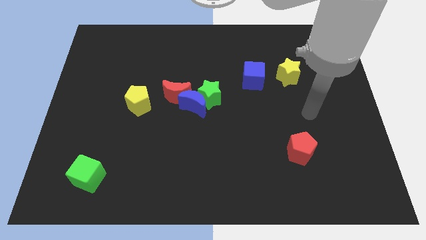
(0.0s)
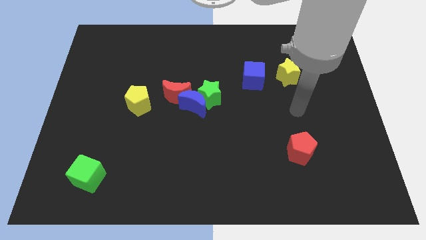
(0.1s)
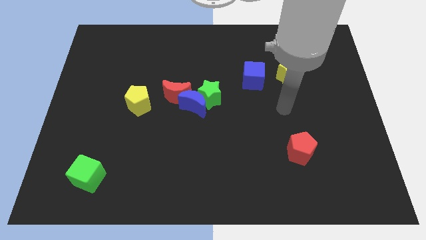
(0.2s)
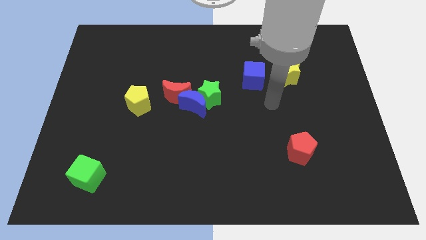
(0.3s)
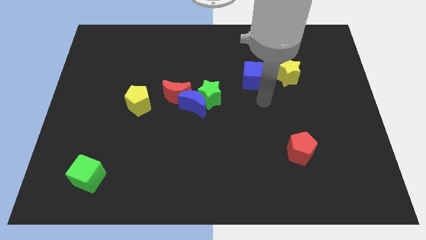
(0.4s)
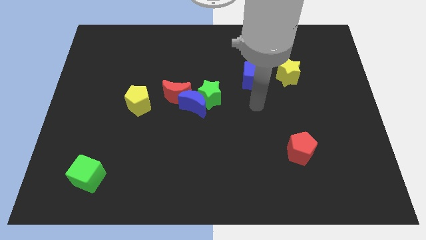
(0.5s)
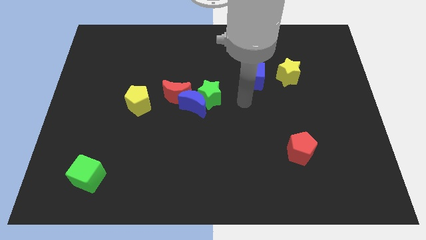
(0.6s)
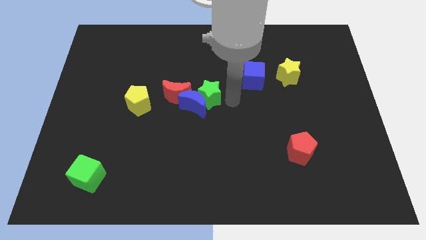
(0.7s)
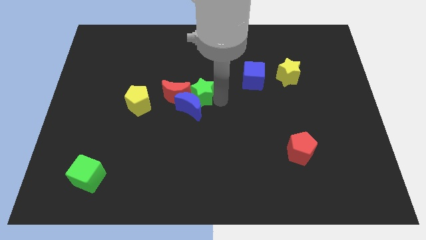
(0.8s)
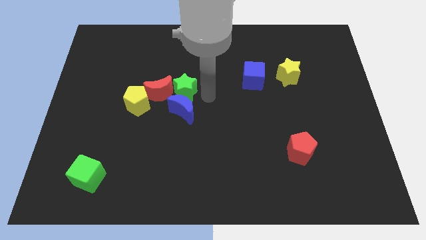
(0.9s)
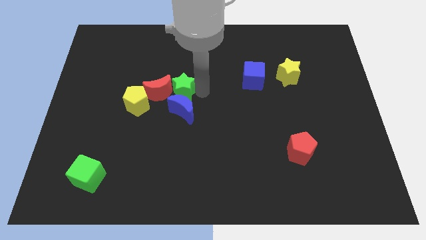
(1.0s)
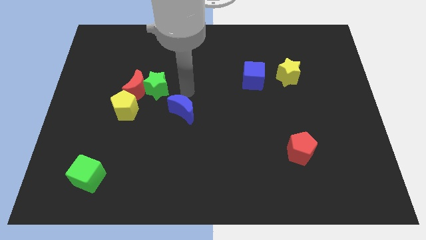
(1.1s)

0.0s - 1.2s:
pull the blue moon apart from the green star and red moon

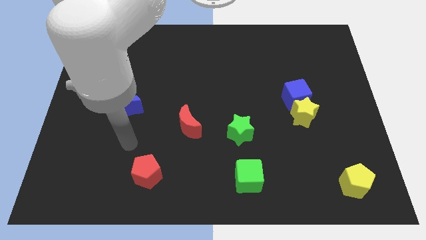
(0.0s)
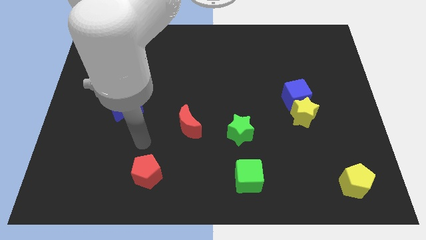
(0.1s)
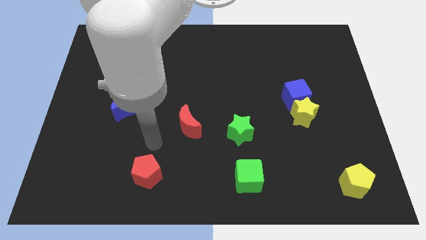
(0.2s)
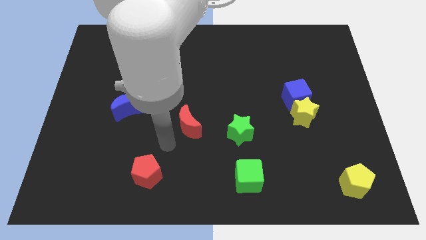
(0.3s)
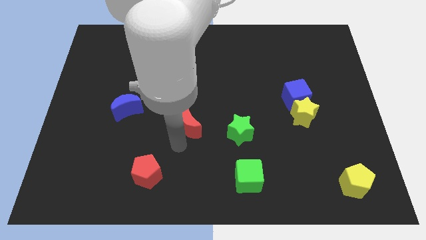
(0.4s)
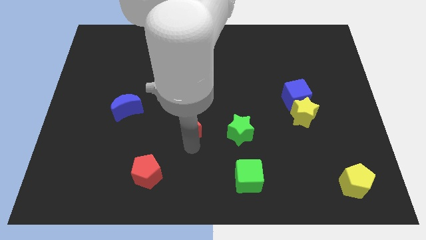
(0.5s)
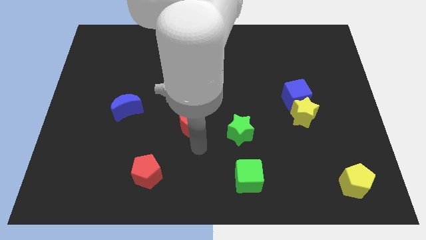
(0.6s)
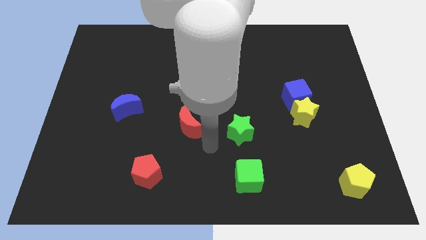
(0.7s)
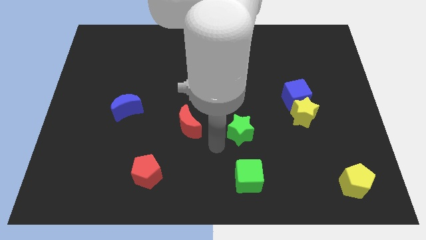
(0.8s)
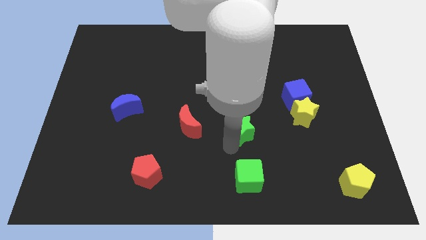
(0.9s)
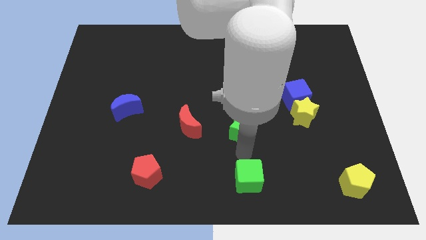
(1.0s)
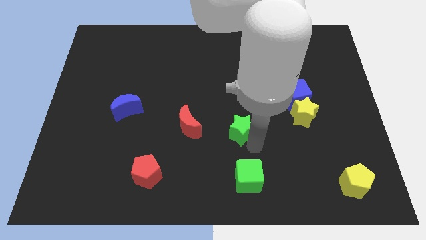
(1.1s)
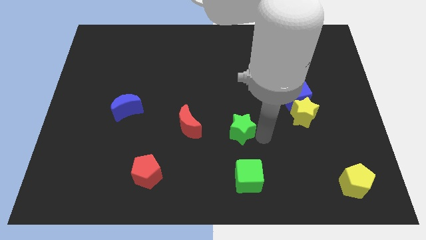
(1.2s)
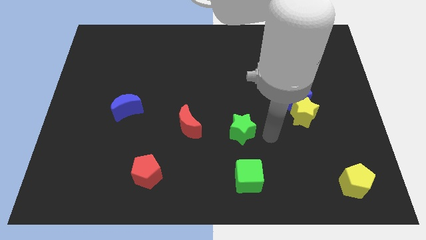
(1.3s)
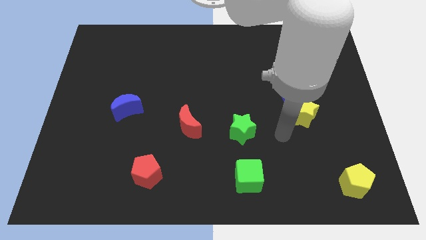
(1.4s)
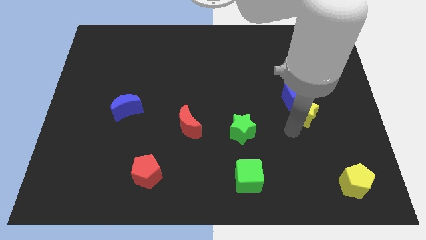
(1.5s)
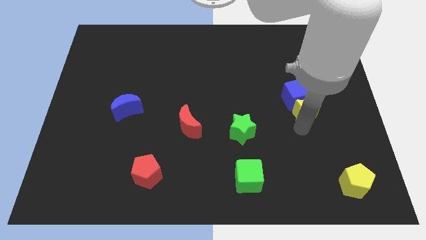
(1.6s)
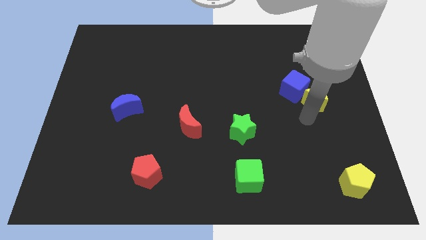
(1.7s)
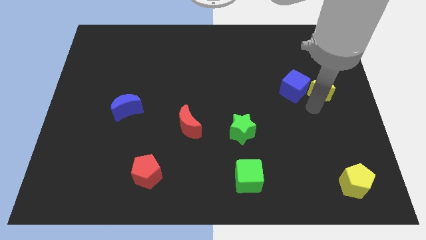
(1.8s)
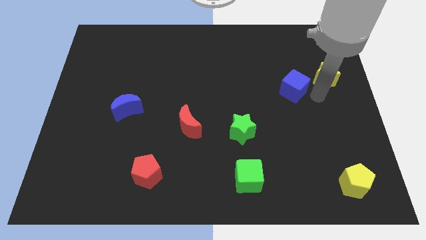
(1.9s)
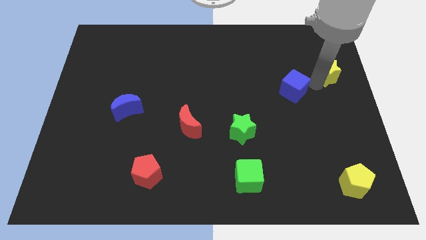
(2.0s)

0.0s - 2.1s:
move the blue cube away from the yellow star

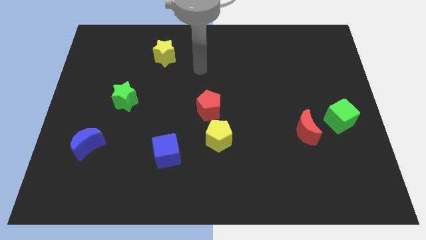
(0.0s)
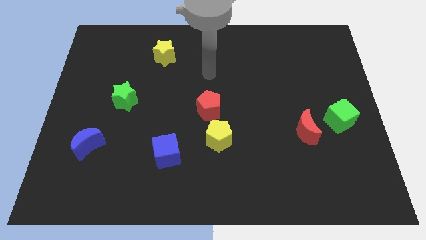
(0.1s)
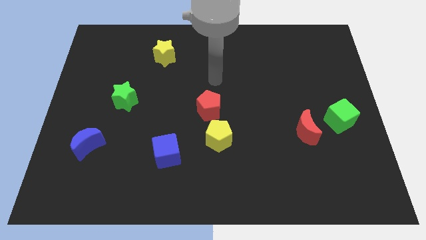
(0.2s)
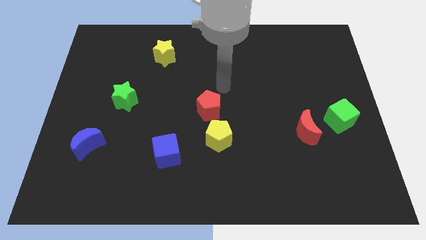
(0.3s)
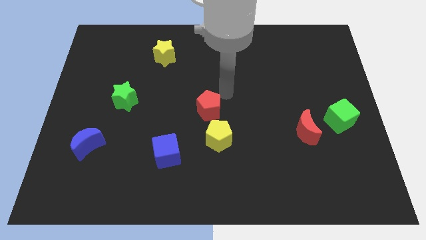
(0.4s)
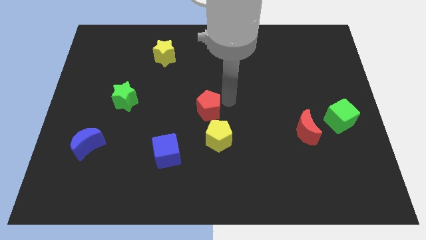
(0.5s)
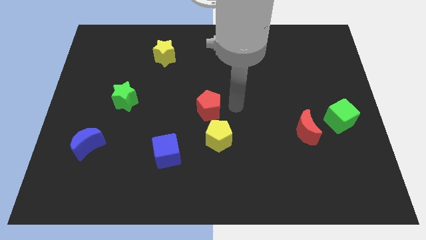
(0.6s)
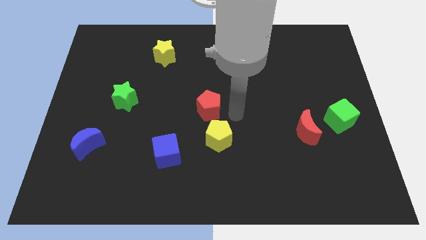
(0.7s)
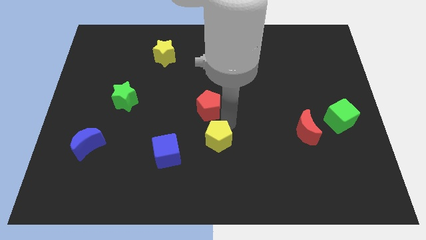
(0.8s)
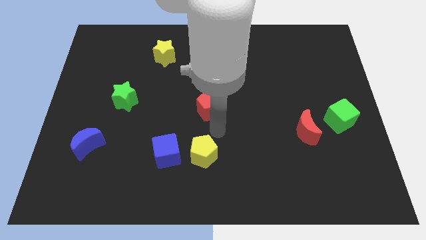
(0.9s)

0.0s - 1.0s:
separate the red pentagon from the yellow pentagon

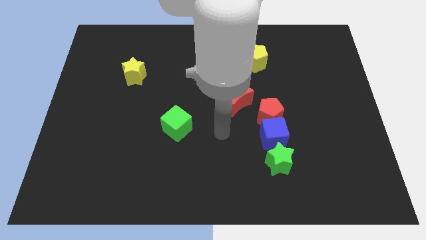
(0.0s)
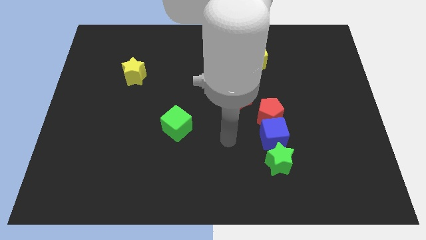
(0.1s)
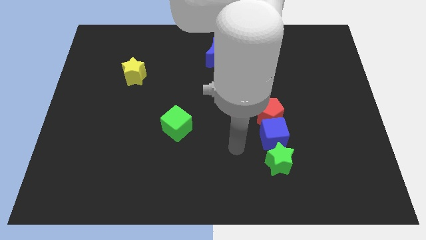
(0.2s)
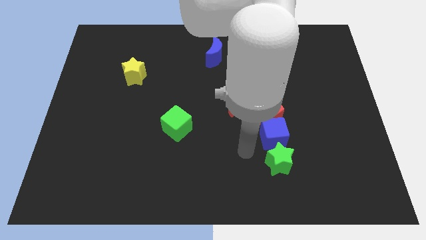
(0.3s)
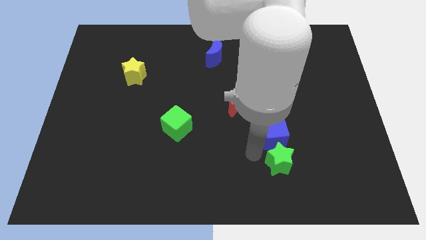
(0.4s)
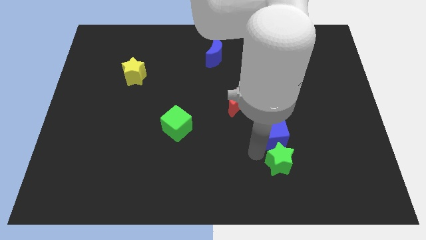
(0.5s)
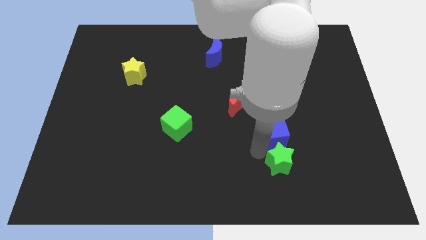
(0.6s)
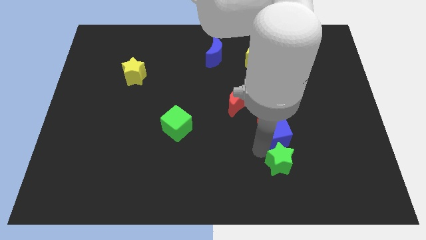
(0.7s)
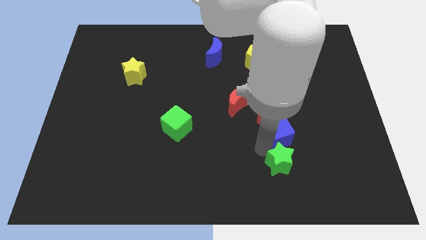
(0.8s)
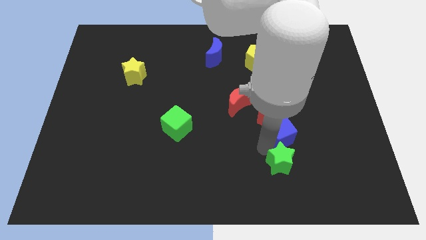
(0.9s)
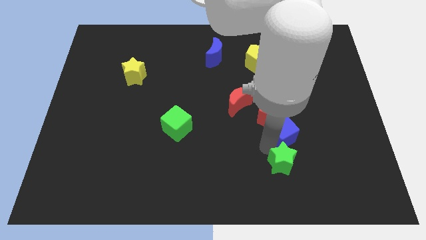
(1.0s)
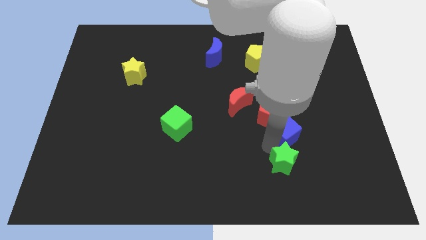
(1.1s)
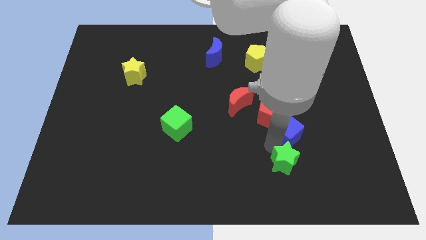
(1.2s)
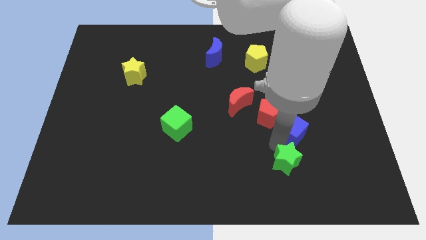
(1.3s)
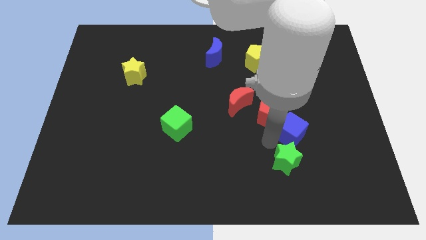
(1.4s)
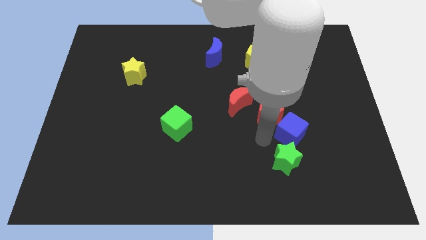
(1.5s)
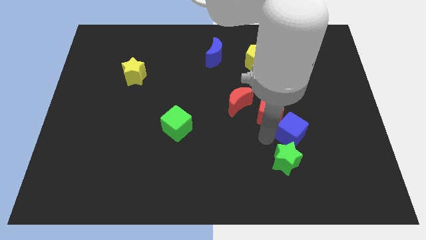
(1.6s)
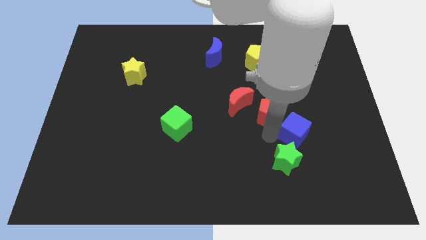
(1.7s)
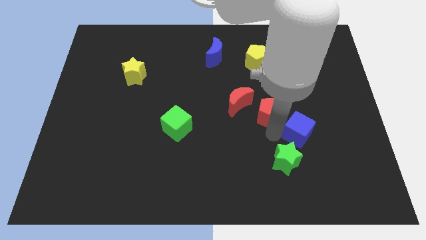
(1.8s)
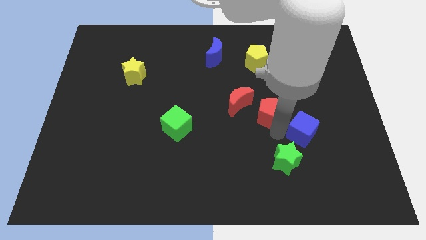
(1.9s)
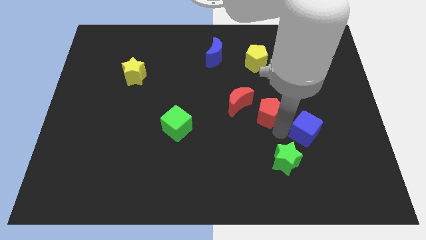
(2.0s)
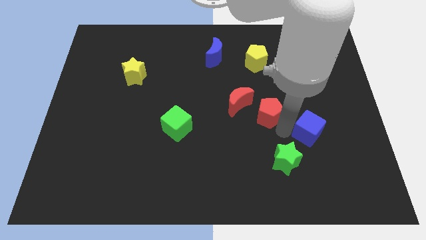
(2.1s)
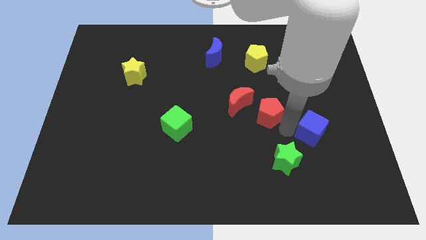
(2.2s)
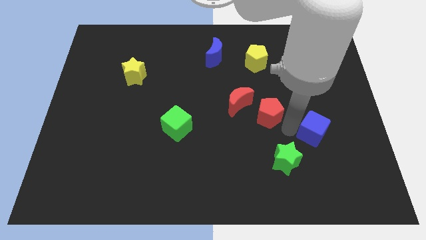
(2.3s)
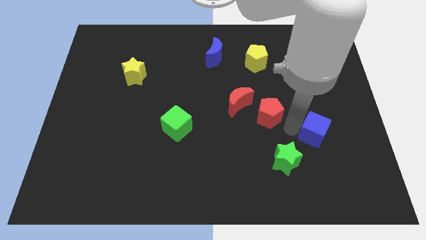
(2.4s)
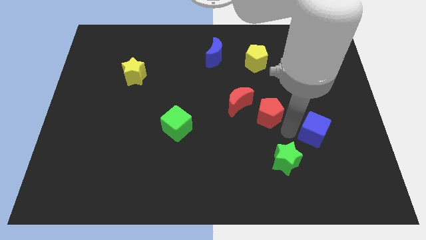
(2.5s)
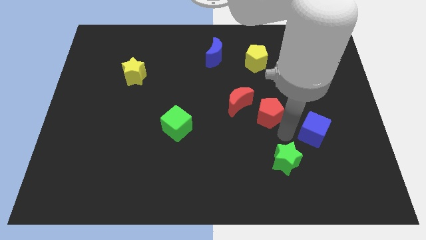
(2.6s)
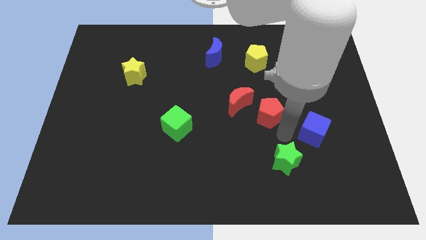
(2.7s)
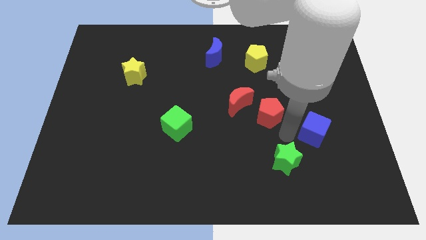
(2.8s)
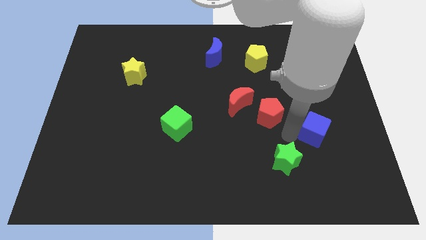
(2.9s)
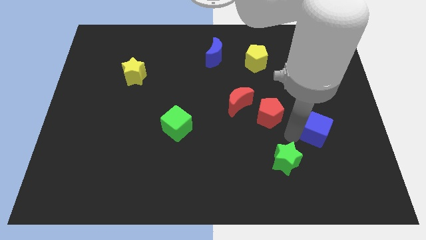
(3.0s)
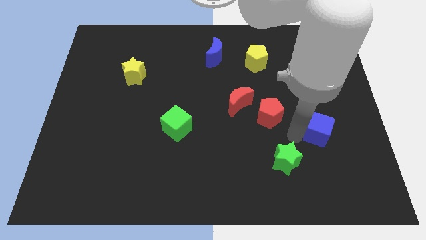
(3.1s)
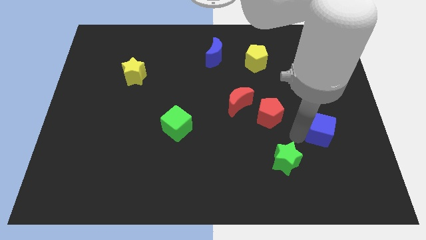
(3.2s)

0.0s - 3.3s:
move the blue cube away from the red pentagon and green star

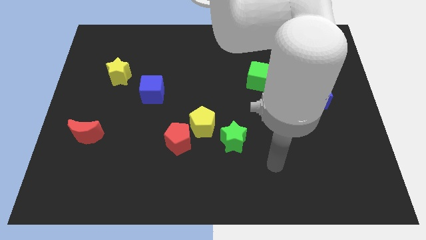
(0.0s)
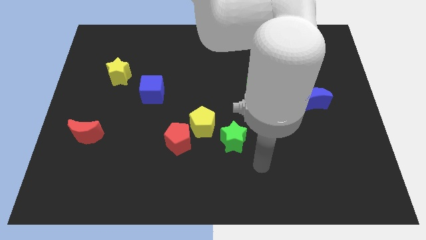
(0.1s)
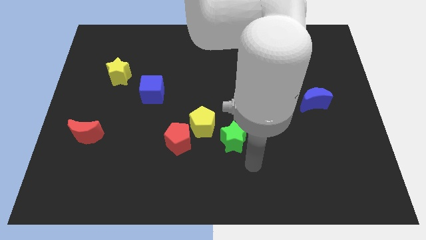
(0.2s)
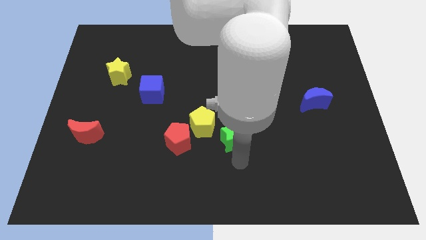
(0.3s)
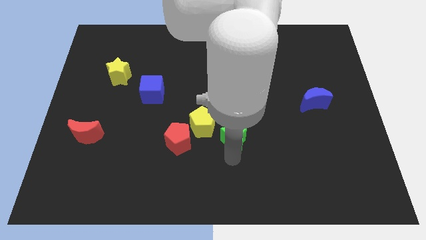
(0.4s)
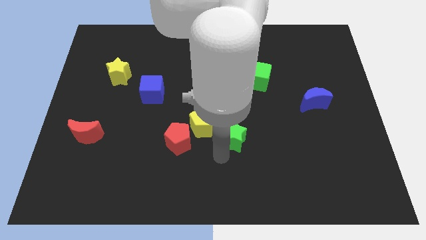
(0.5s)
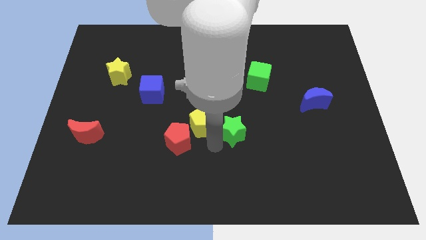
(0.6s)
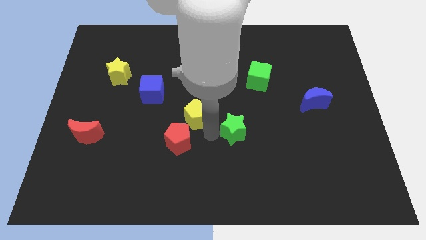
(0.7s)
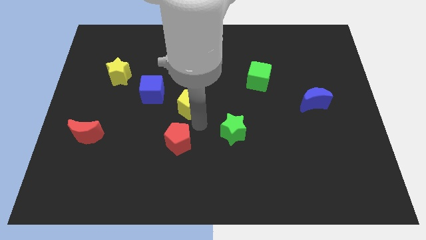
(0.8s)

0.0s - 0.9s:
move the red pentagon away from the yellow pentagon

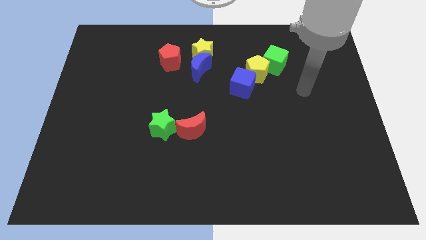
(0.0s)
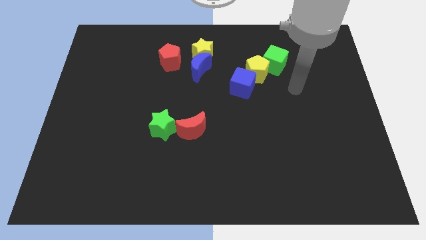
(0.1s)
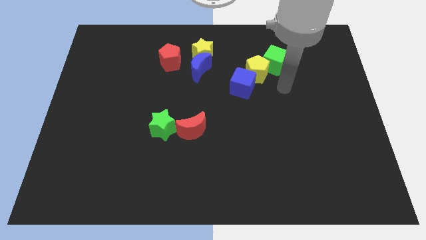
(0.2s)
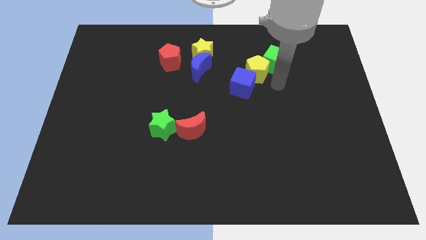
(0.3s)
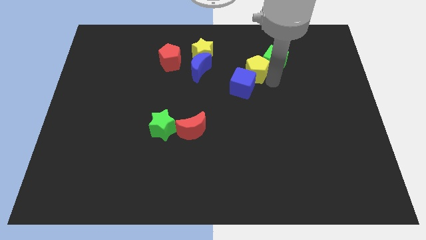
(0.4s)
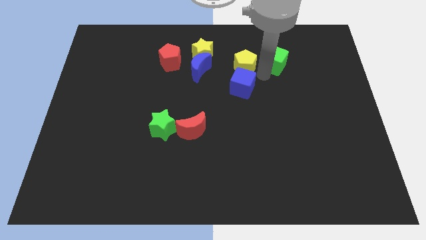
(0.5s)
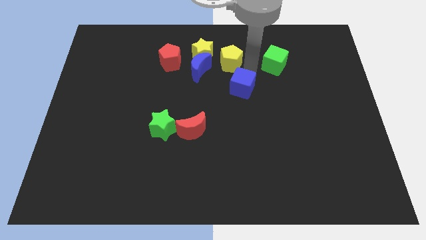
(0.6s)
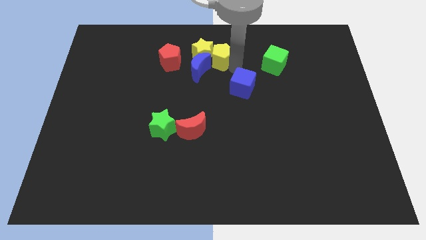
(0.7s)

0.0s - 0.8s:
pull the blue cube apart from the yellow pentagon
